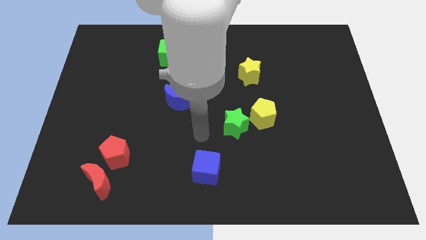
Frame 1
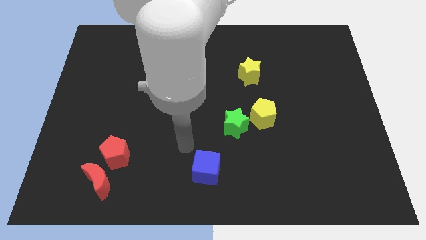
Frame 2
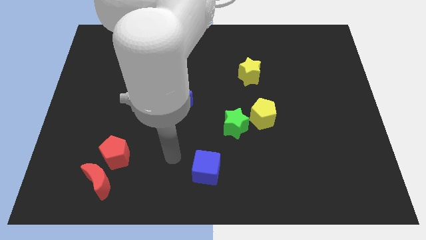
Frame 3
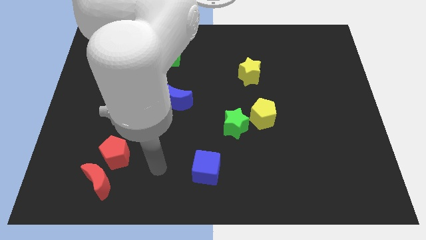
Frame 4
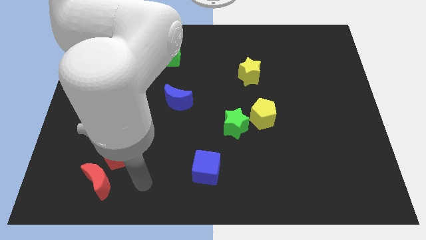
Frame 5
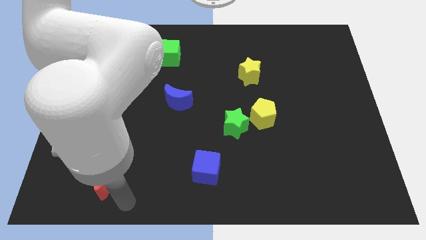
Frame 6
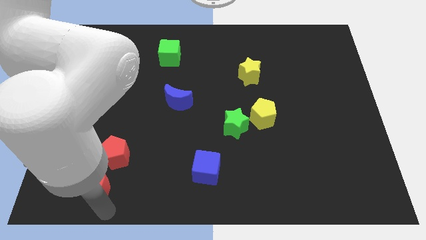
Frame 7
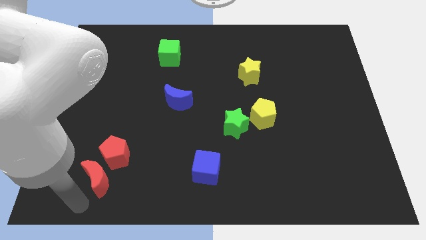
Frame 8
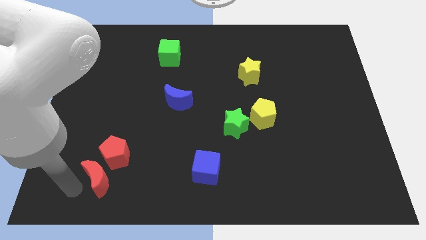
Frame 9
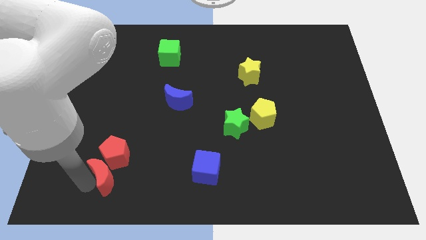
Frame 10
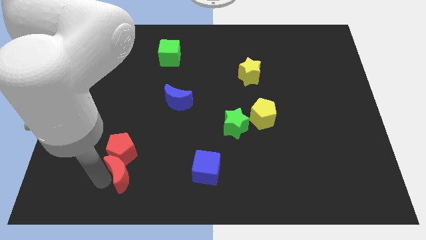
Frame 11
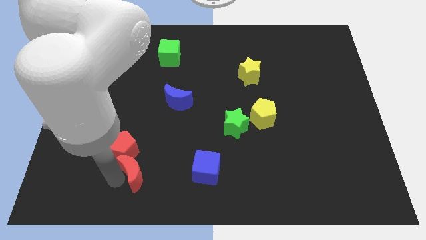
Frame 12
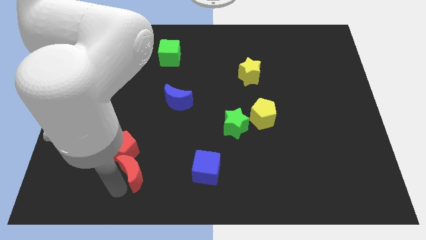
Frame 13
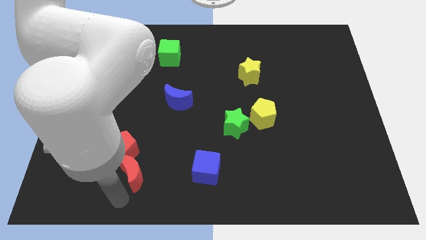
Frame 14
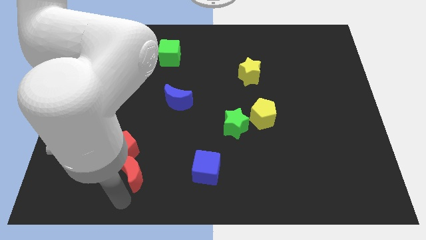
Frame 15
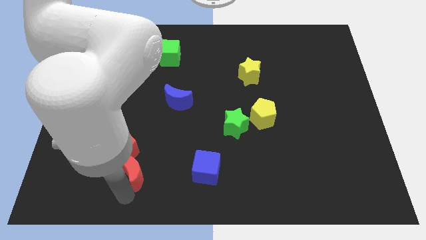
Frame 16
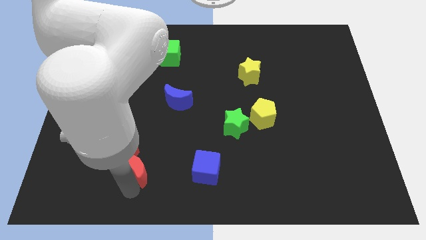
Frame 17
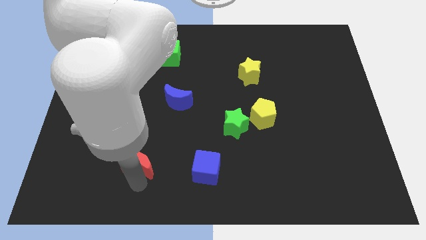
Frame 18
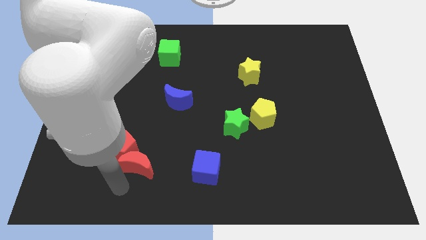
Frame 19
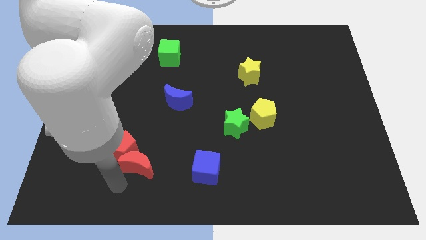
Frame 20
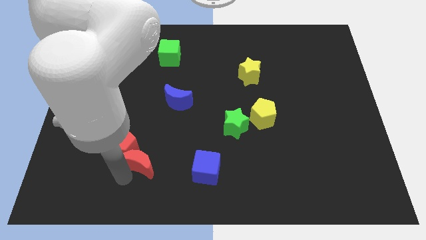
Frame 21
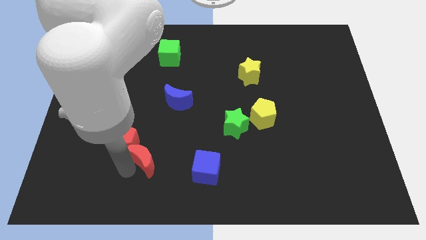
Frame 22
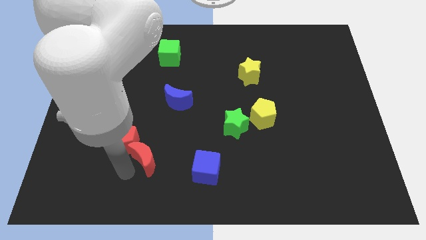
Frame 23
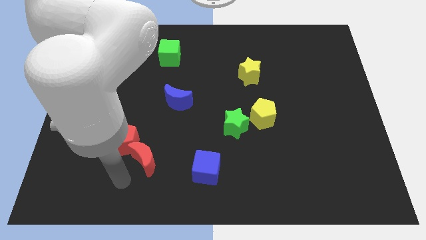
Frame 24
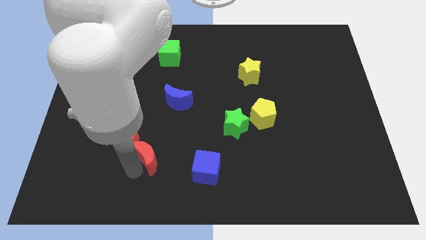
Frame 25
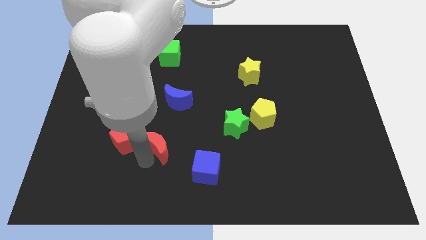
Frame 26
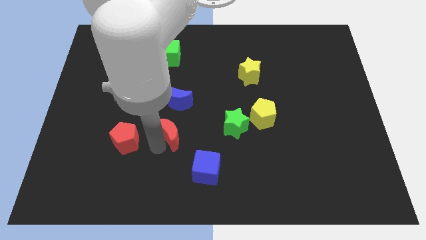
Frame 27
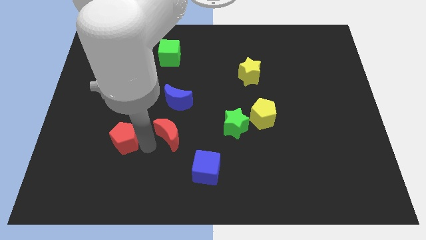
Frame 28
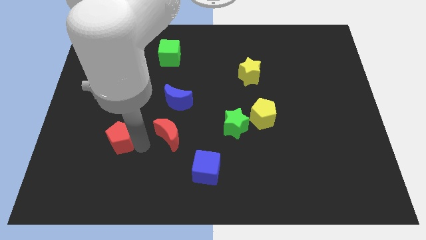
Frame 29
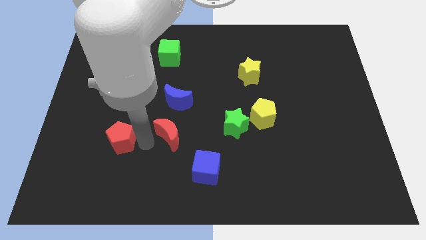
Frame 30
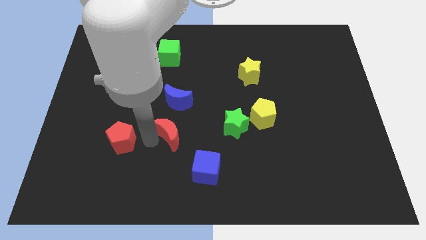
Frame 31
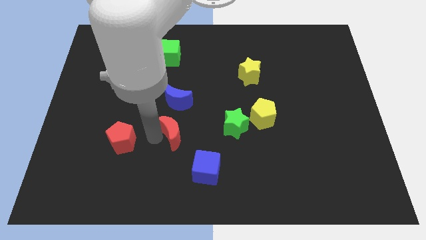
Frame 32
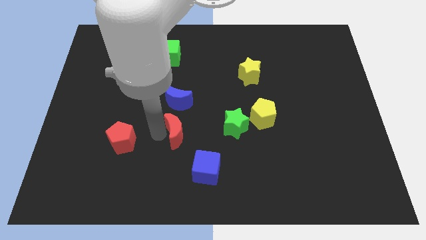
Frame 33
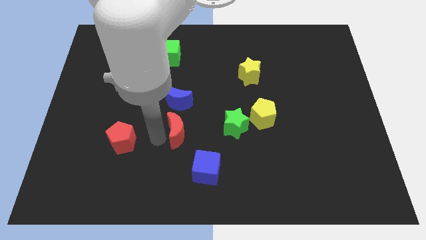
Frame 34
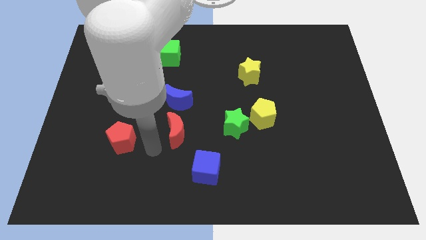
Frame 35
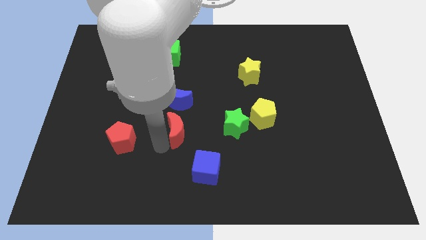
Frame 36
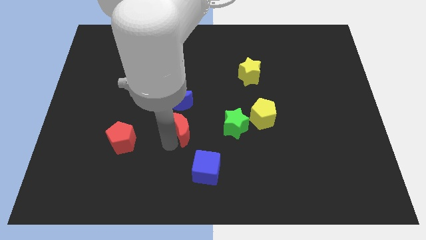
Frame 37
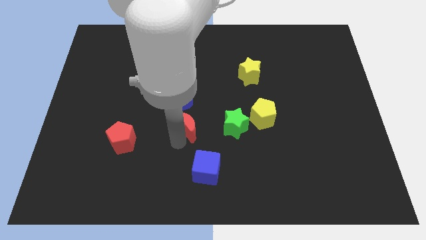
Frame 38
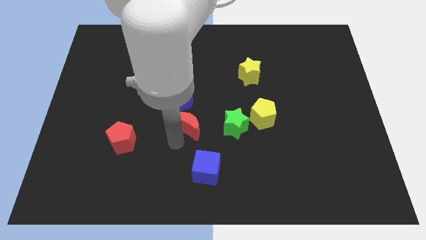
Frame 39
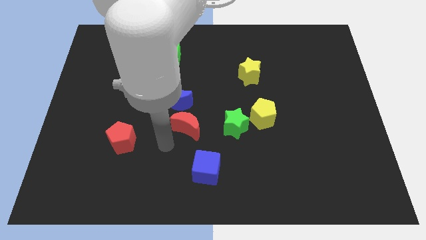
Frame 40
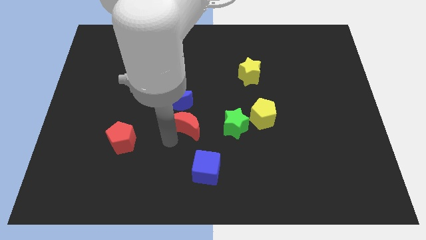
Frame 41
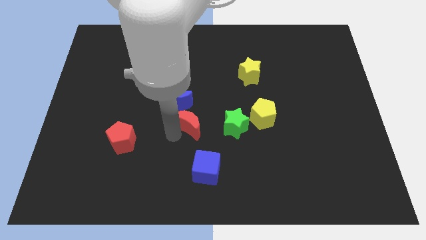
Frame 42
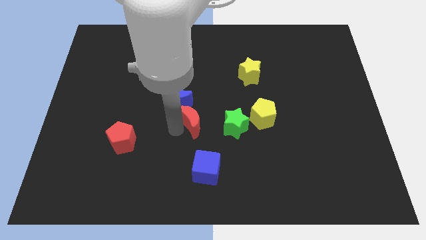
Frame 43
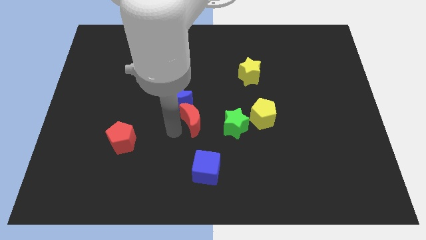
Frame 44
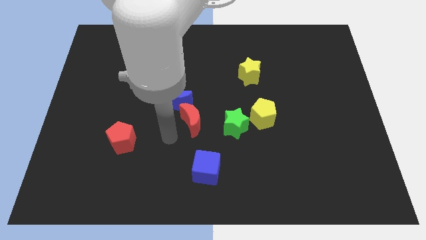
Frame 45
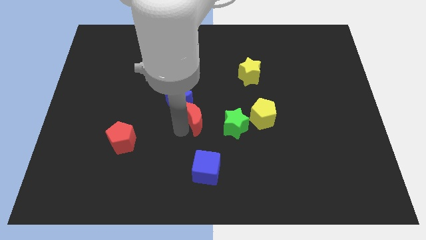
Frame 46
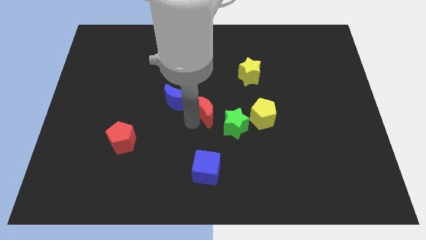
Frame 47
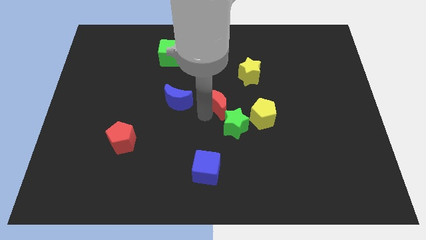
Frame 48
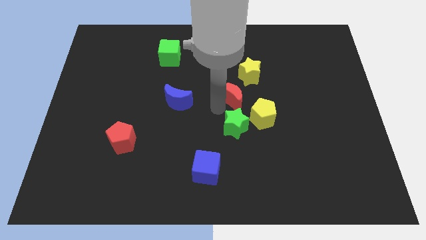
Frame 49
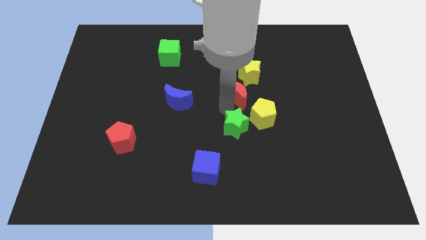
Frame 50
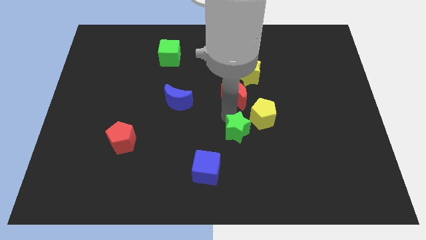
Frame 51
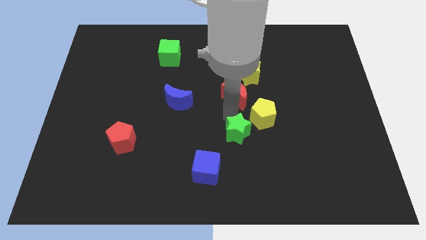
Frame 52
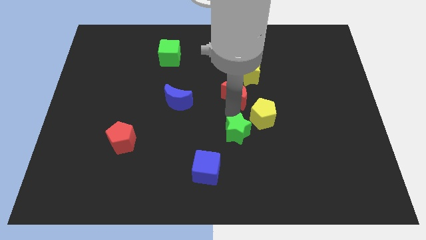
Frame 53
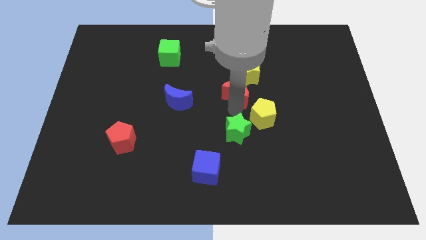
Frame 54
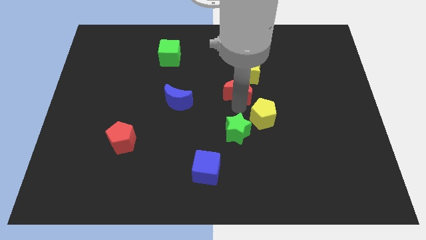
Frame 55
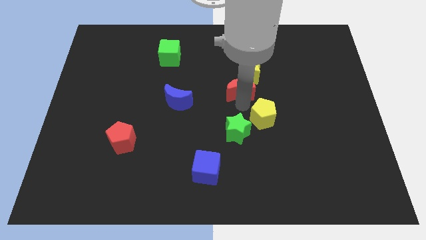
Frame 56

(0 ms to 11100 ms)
slide the red moon towards the yellow star

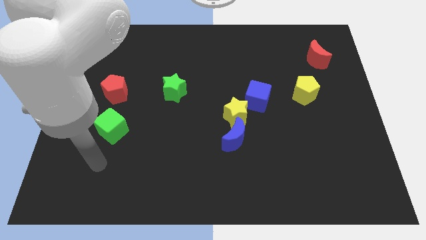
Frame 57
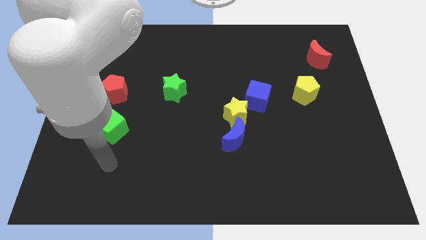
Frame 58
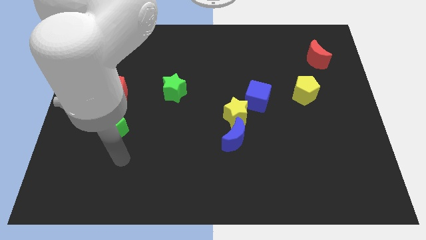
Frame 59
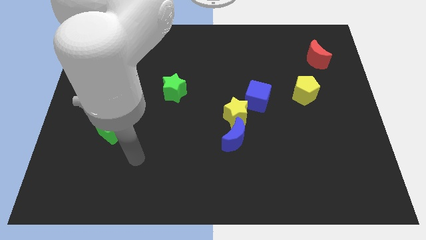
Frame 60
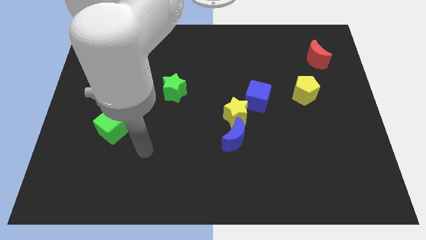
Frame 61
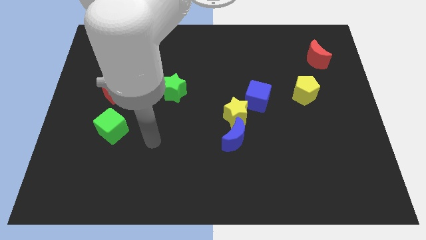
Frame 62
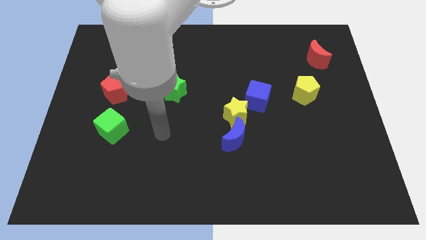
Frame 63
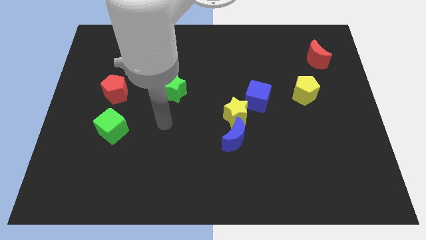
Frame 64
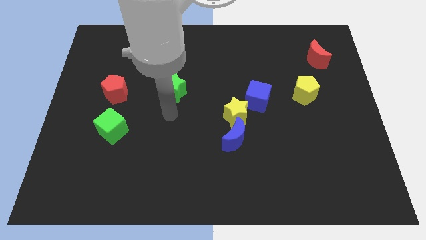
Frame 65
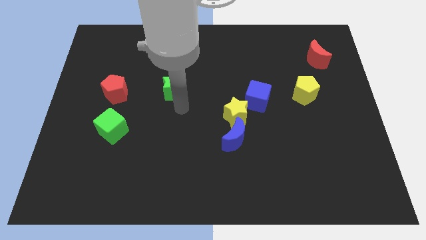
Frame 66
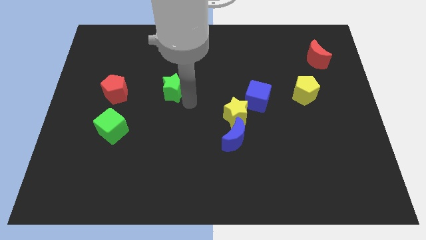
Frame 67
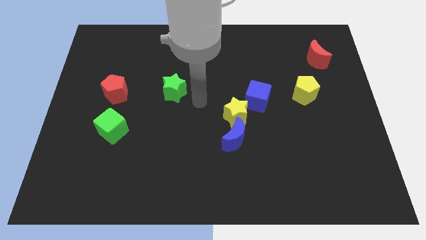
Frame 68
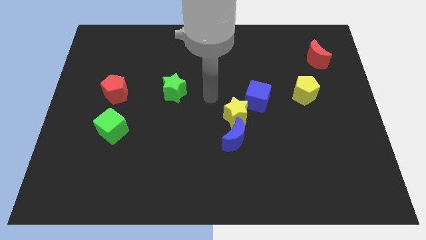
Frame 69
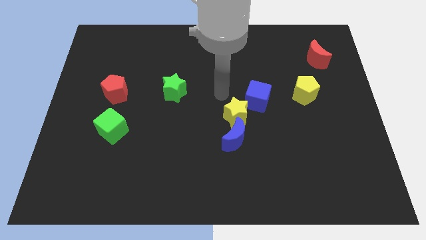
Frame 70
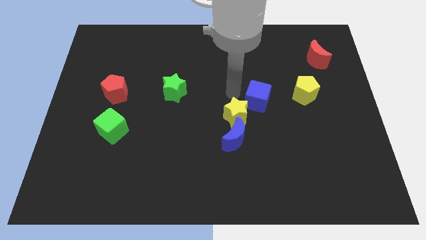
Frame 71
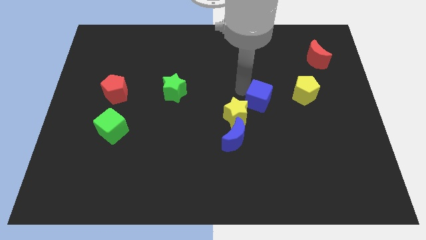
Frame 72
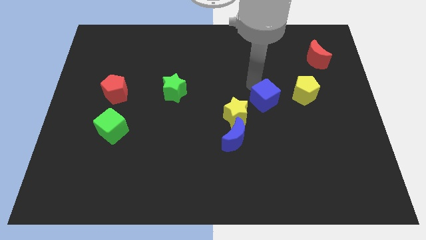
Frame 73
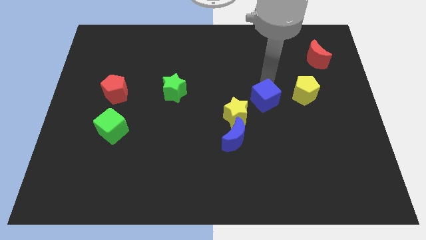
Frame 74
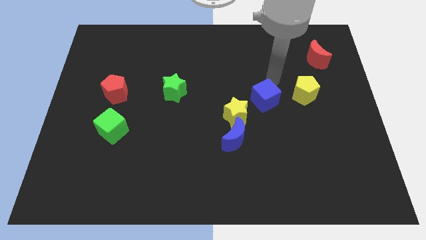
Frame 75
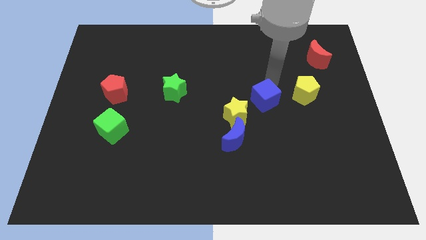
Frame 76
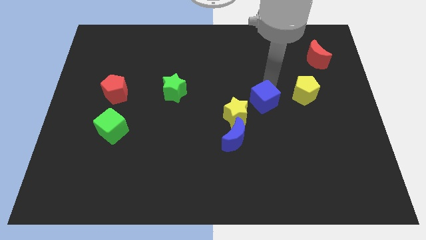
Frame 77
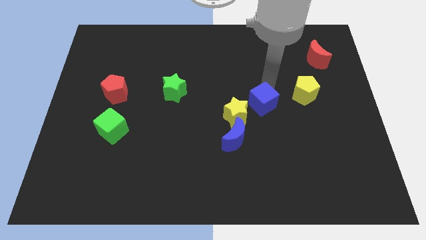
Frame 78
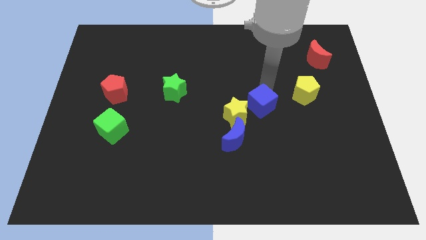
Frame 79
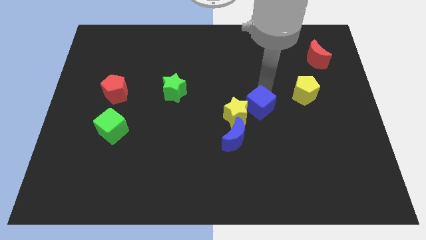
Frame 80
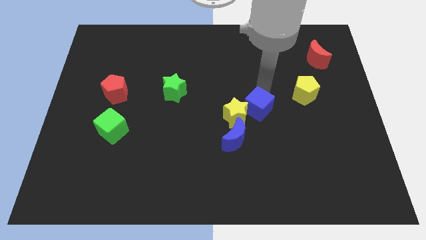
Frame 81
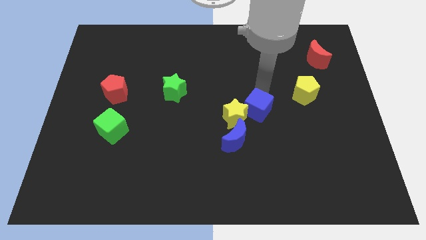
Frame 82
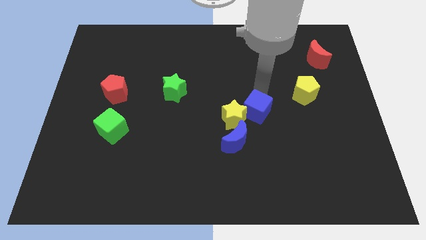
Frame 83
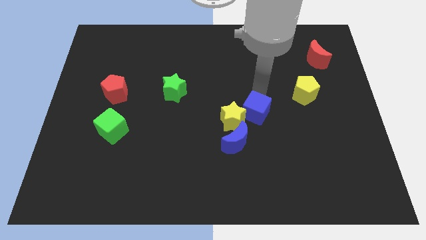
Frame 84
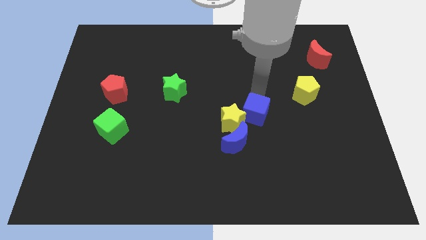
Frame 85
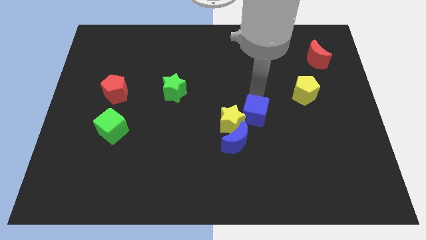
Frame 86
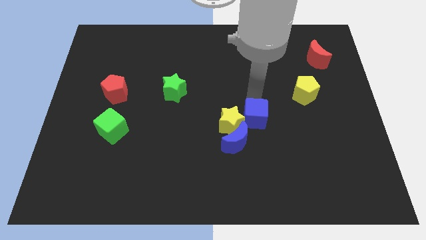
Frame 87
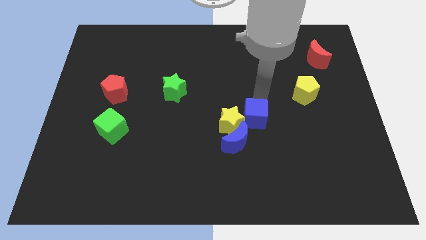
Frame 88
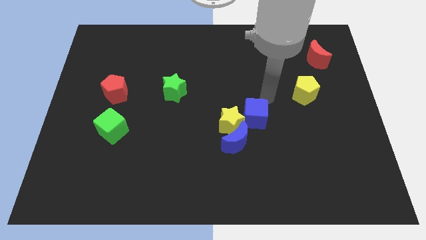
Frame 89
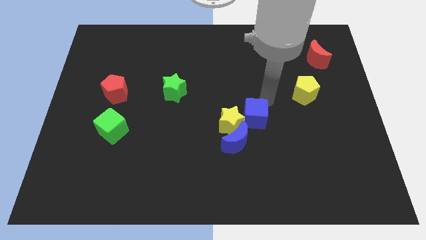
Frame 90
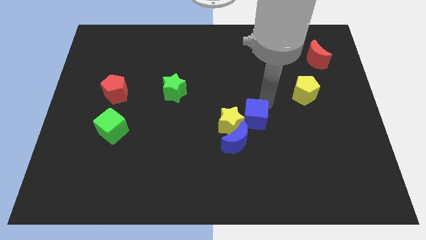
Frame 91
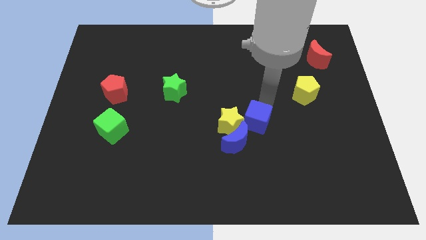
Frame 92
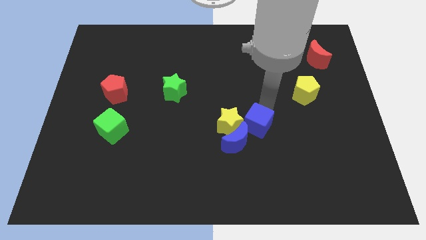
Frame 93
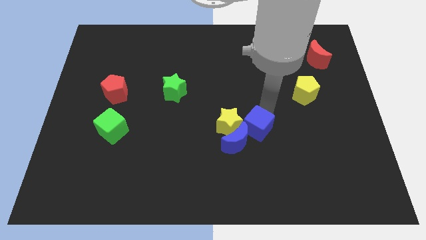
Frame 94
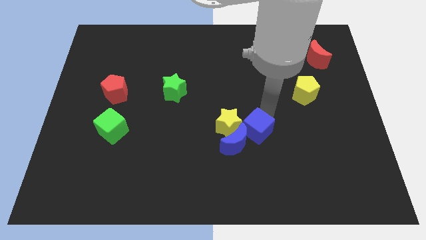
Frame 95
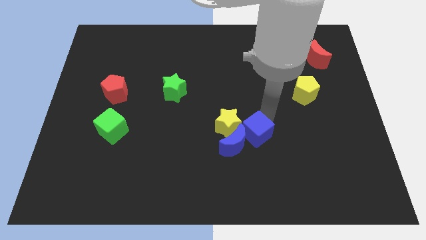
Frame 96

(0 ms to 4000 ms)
slide the blue cube close to the blue moon
